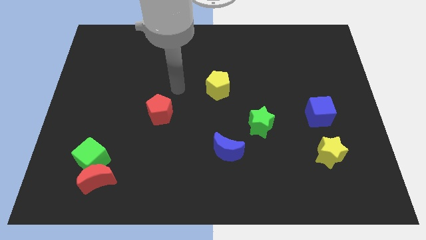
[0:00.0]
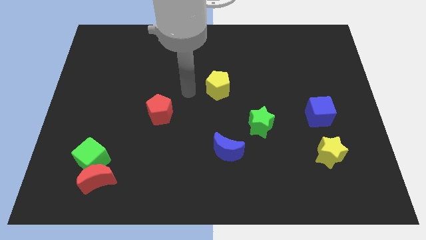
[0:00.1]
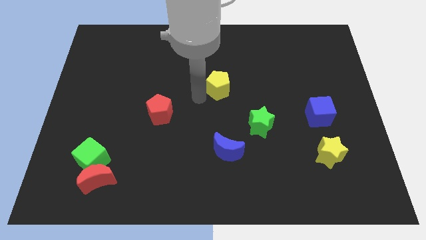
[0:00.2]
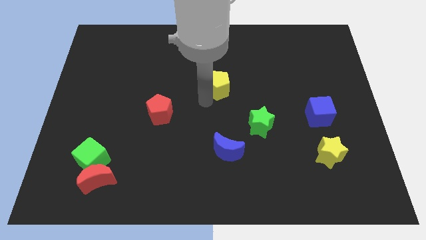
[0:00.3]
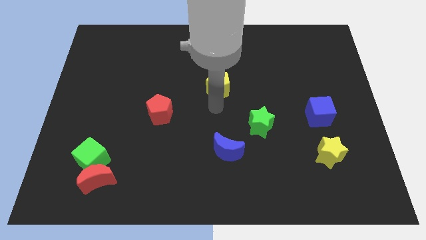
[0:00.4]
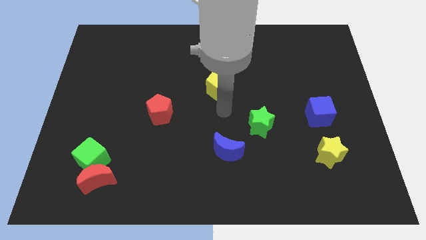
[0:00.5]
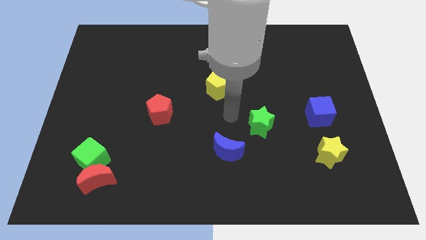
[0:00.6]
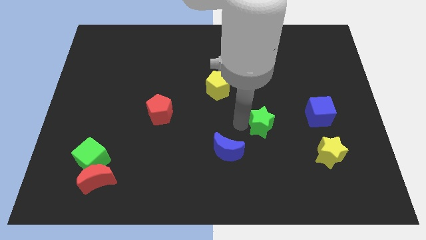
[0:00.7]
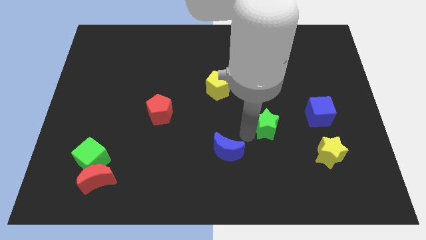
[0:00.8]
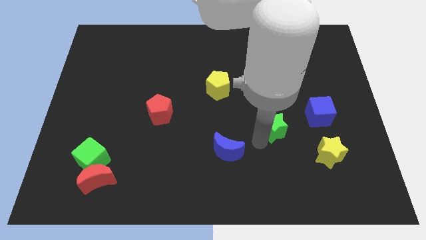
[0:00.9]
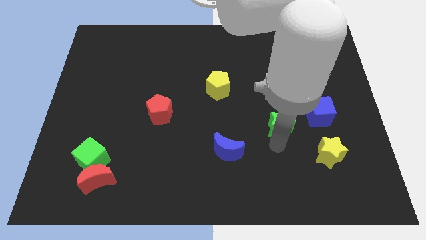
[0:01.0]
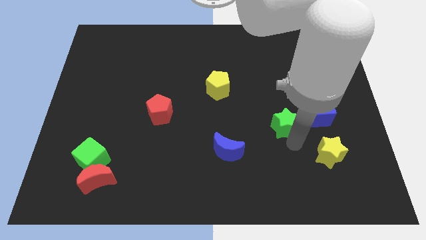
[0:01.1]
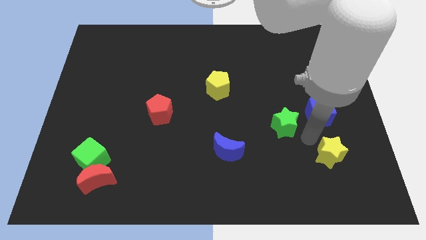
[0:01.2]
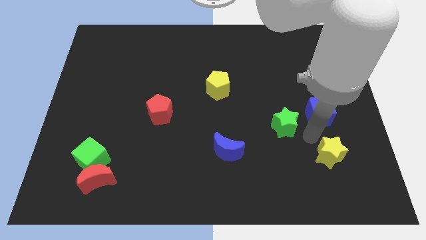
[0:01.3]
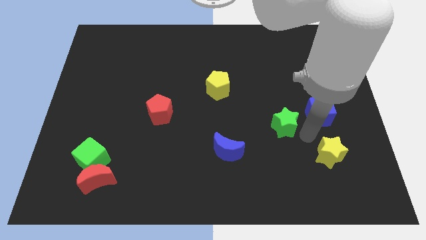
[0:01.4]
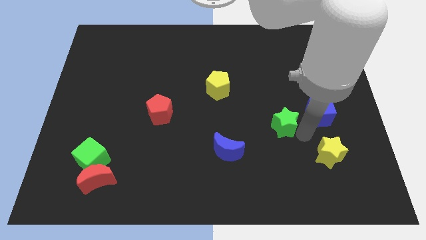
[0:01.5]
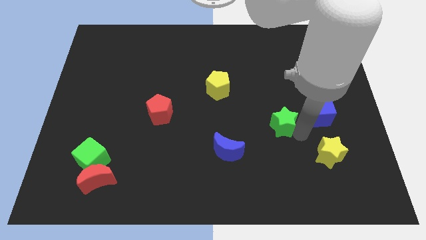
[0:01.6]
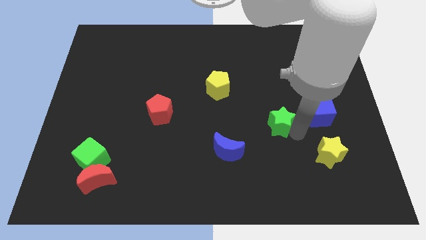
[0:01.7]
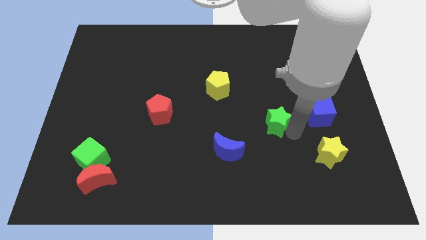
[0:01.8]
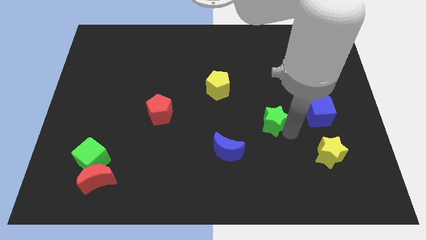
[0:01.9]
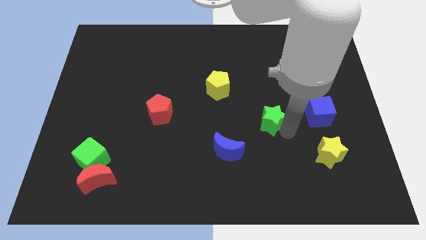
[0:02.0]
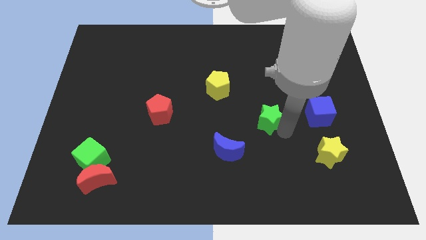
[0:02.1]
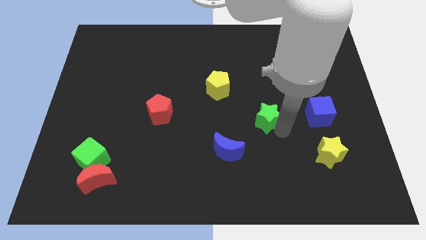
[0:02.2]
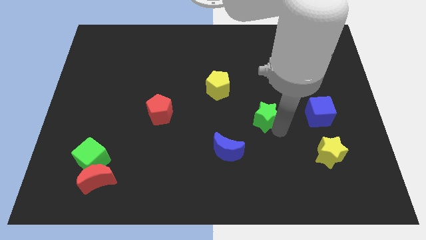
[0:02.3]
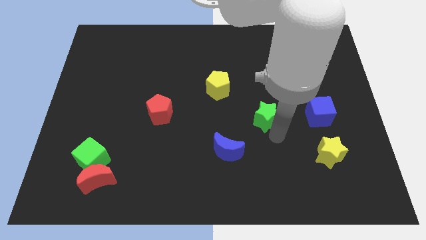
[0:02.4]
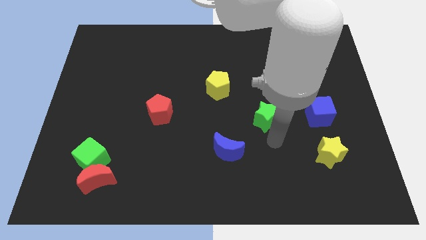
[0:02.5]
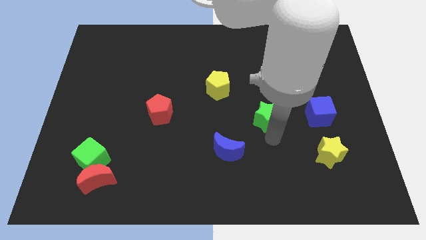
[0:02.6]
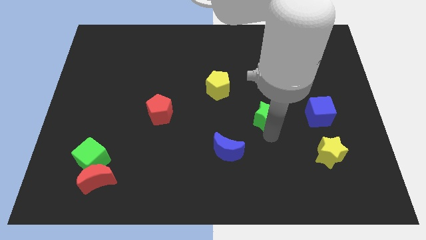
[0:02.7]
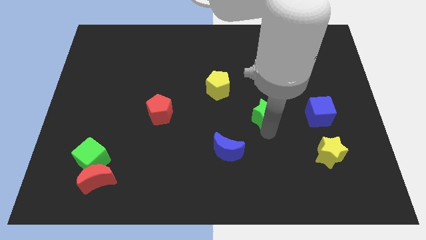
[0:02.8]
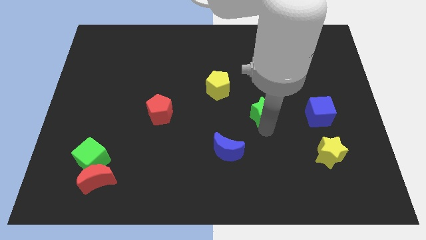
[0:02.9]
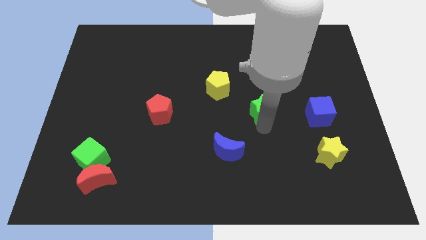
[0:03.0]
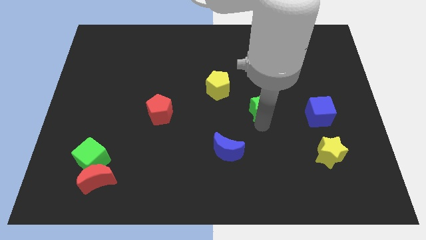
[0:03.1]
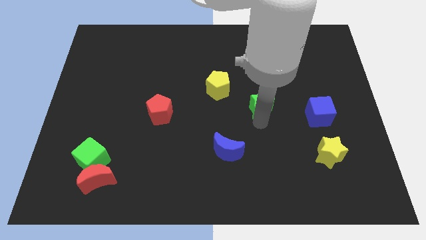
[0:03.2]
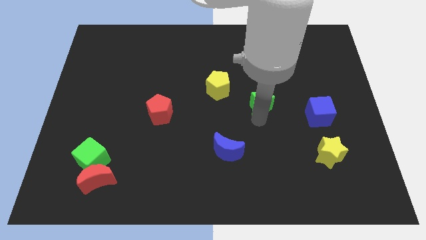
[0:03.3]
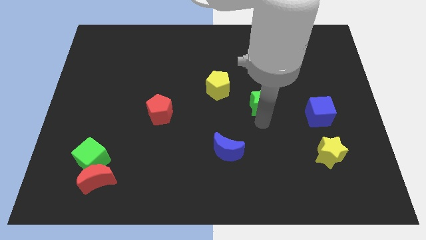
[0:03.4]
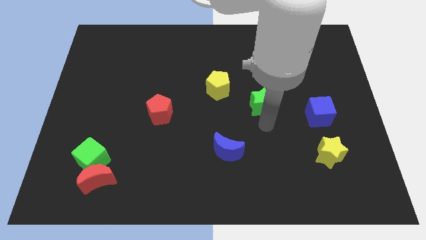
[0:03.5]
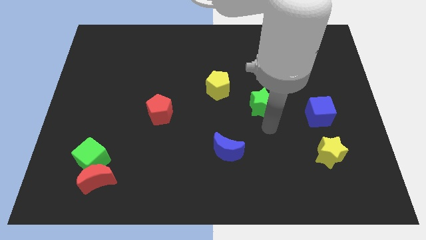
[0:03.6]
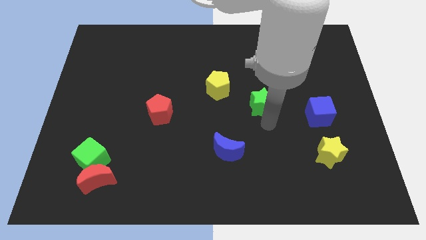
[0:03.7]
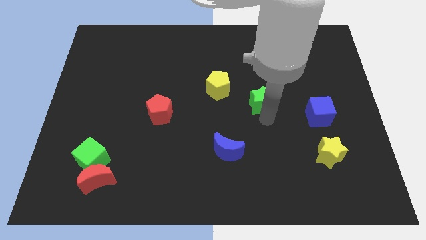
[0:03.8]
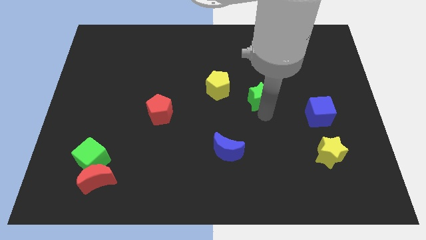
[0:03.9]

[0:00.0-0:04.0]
slide the green star a little bit up

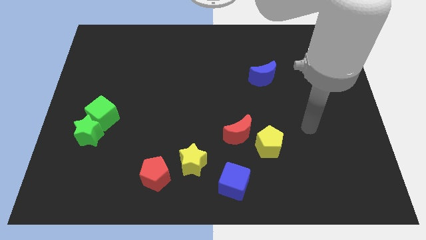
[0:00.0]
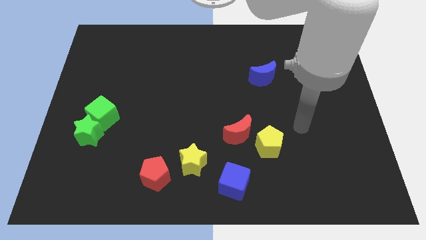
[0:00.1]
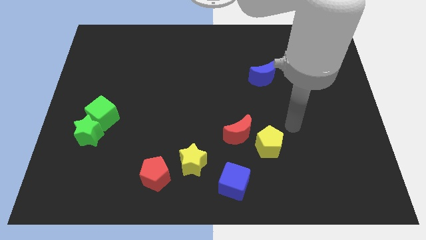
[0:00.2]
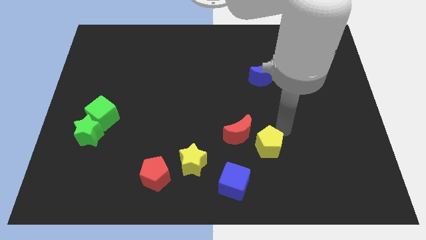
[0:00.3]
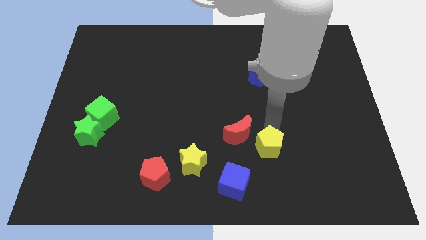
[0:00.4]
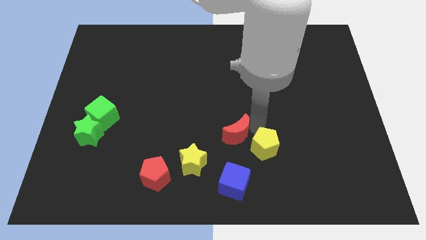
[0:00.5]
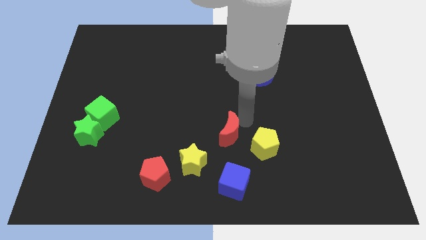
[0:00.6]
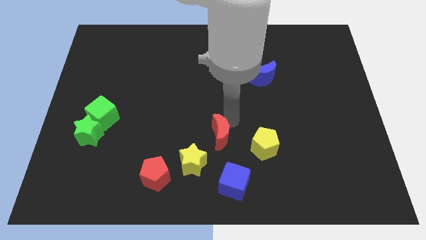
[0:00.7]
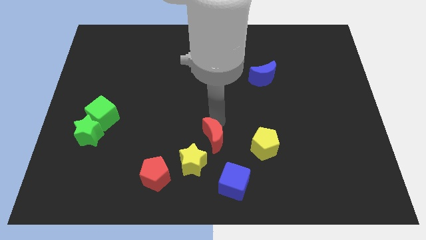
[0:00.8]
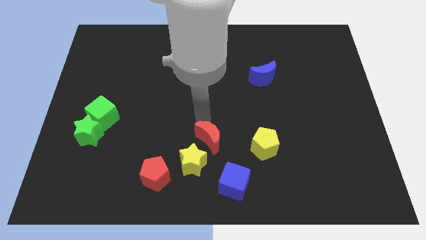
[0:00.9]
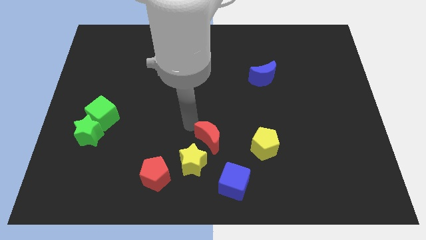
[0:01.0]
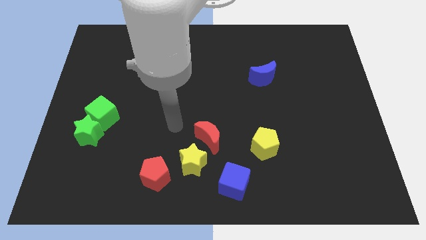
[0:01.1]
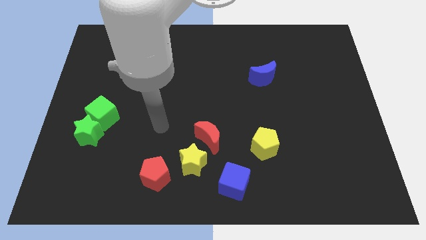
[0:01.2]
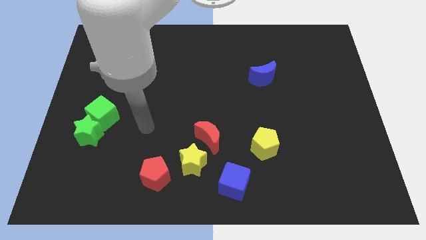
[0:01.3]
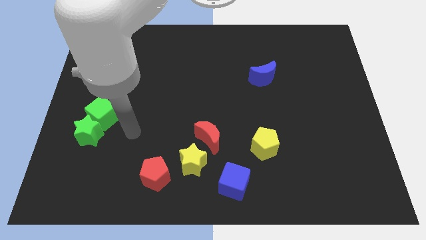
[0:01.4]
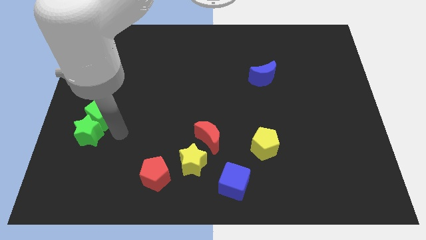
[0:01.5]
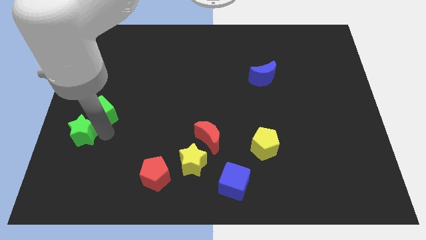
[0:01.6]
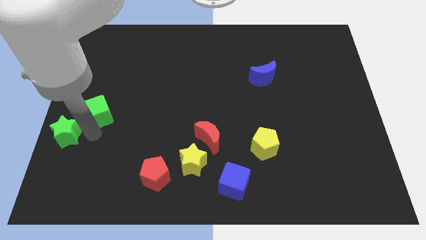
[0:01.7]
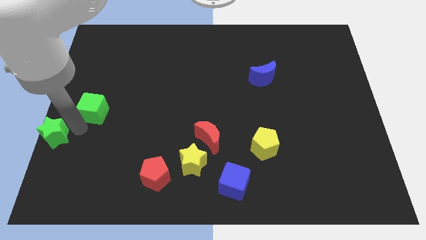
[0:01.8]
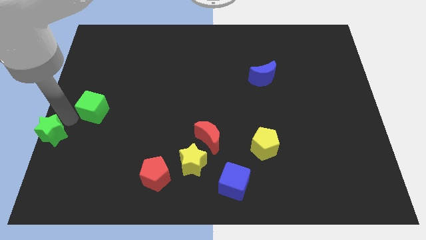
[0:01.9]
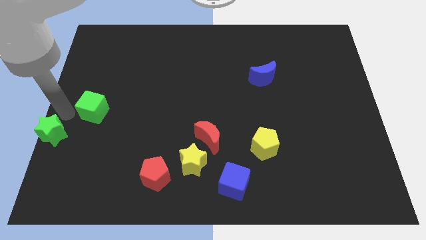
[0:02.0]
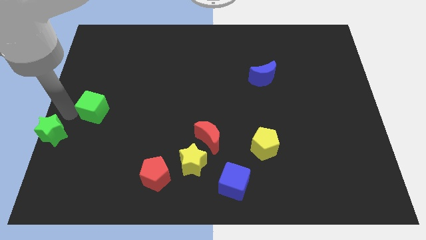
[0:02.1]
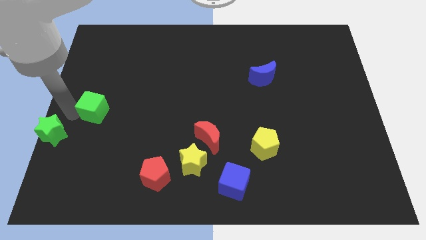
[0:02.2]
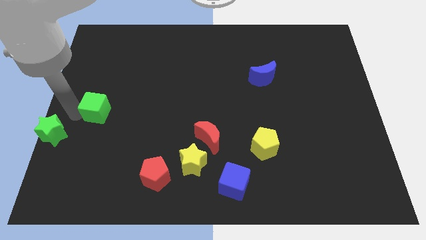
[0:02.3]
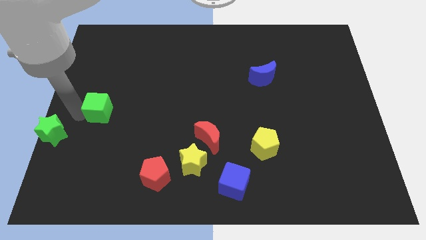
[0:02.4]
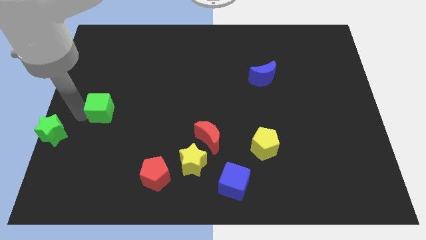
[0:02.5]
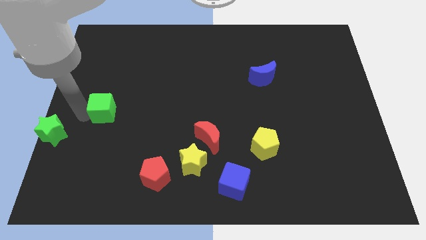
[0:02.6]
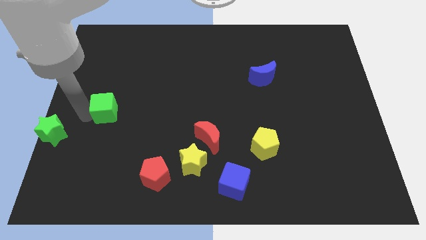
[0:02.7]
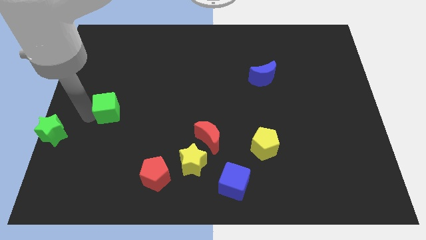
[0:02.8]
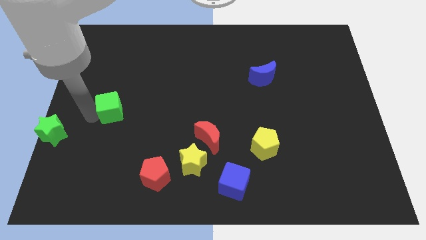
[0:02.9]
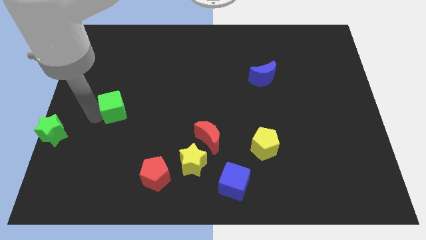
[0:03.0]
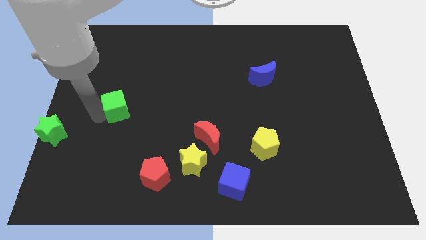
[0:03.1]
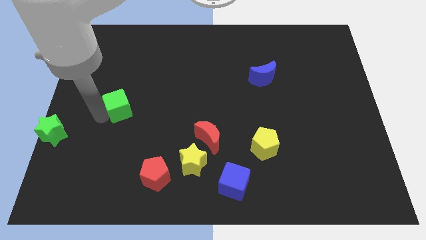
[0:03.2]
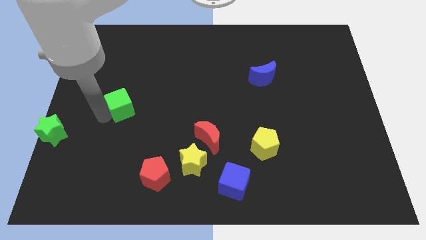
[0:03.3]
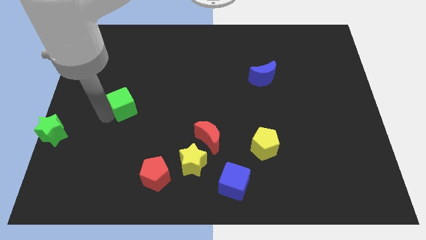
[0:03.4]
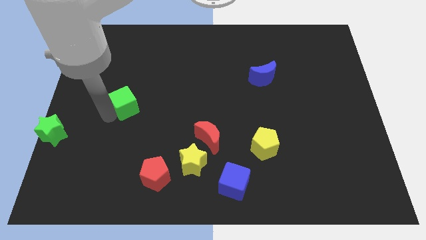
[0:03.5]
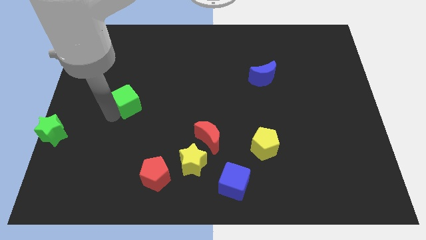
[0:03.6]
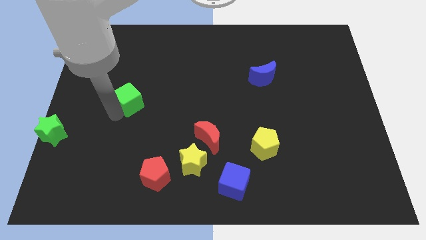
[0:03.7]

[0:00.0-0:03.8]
move the green cube slightly up and right

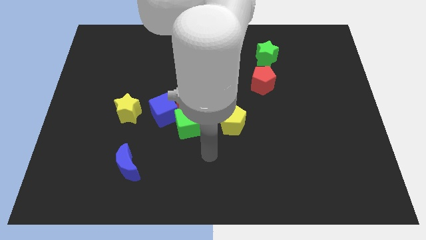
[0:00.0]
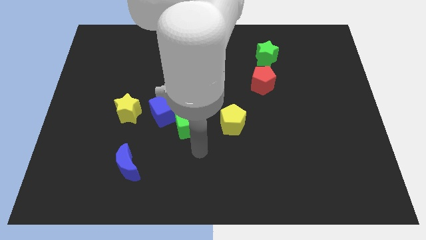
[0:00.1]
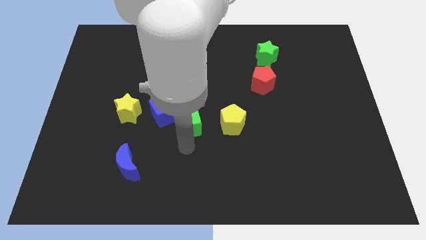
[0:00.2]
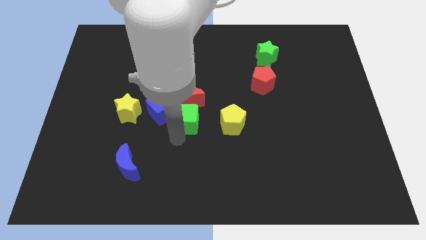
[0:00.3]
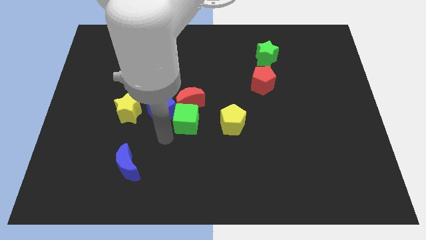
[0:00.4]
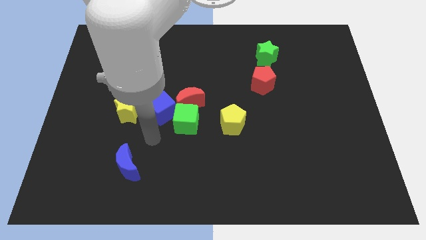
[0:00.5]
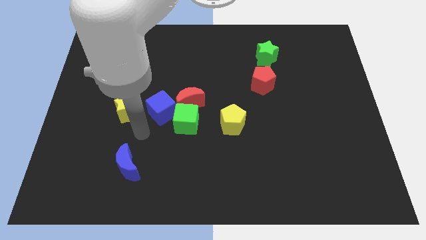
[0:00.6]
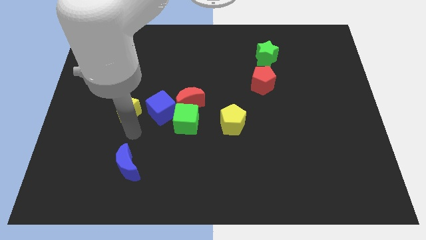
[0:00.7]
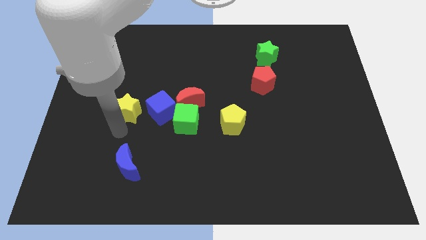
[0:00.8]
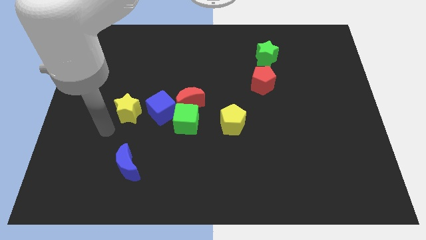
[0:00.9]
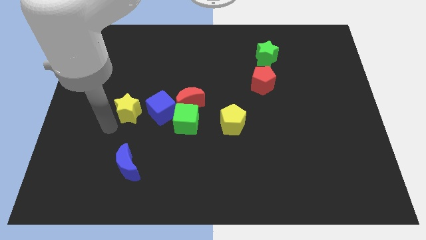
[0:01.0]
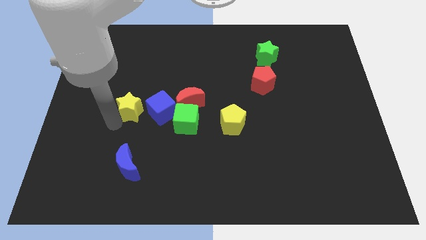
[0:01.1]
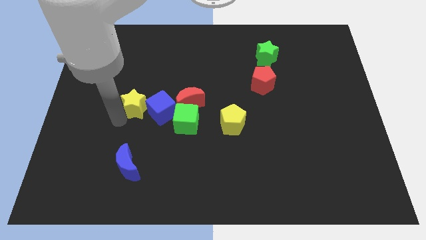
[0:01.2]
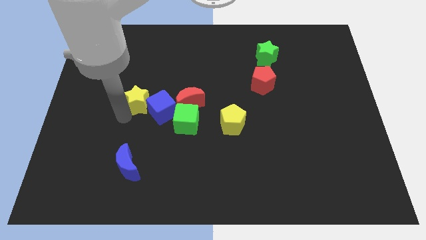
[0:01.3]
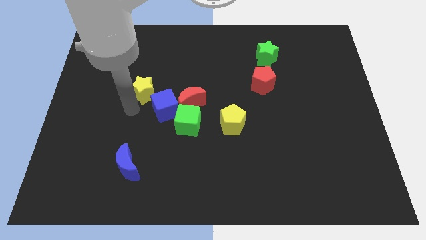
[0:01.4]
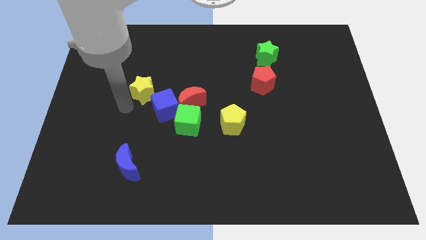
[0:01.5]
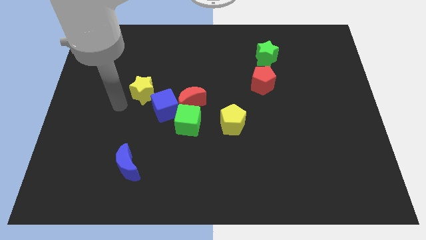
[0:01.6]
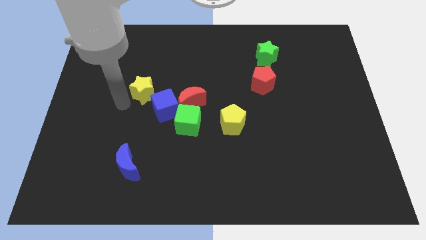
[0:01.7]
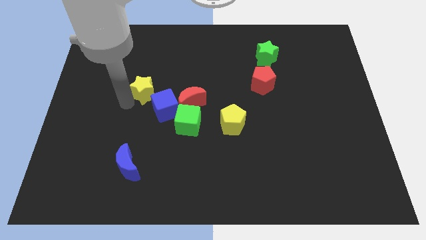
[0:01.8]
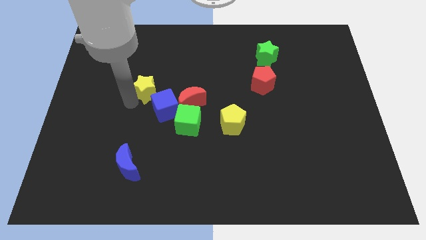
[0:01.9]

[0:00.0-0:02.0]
slide the yellow star a little bit upwards and to the right diagonally
